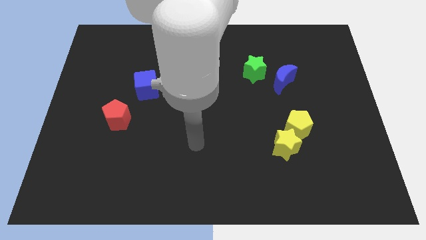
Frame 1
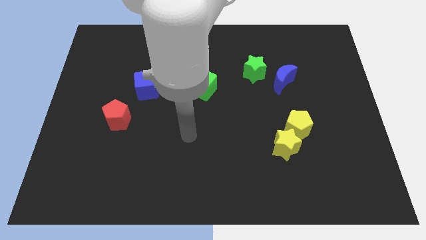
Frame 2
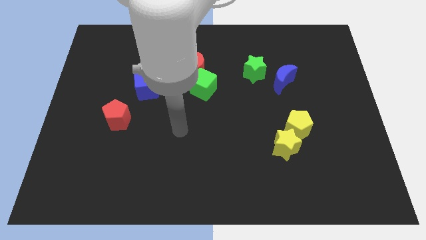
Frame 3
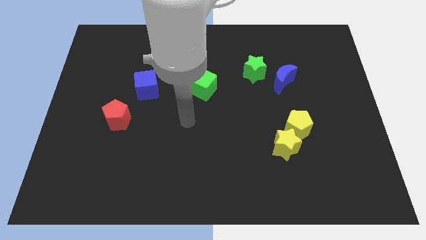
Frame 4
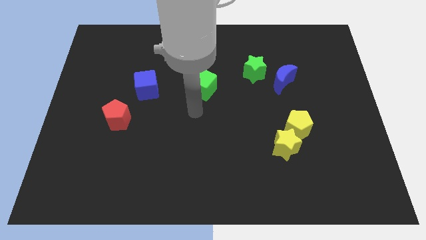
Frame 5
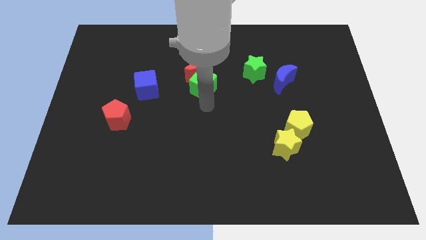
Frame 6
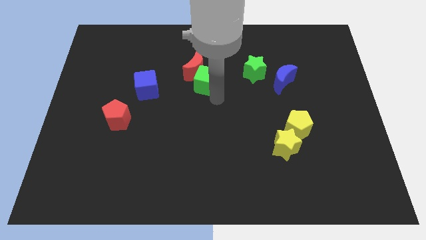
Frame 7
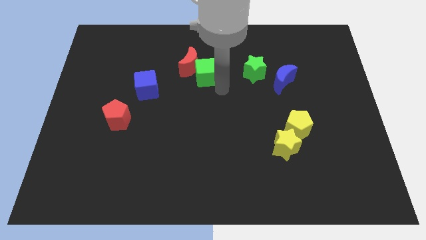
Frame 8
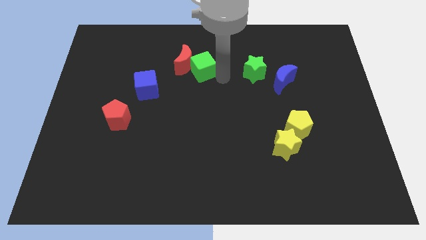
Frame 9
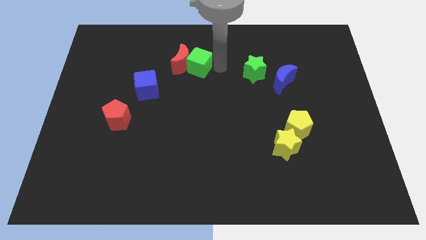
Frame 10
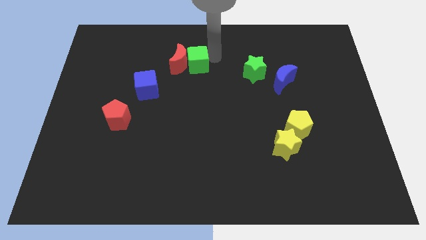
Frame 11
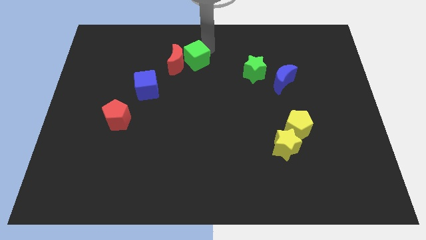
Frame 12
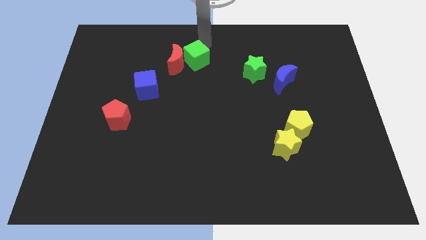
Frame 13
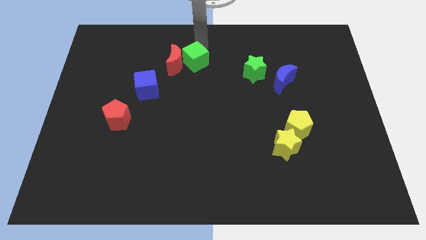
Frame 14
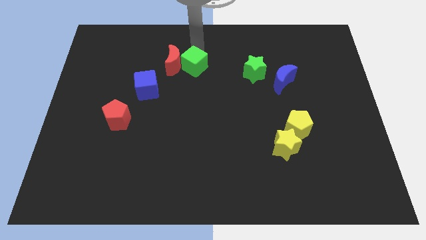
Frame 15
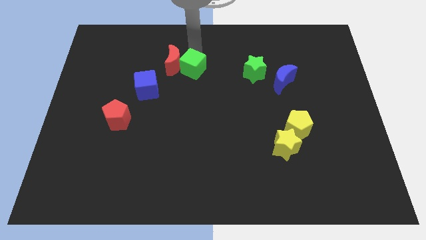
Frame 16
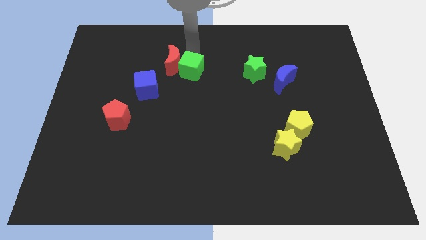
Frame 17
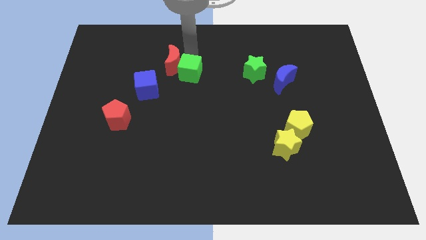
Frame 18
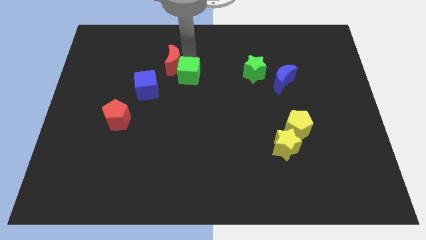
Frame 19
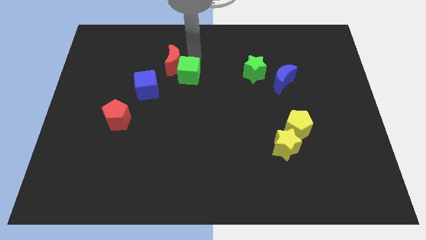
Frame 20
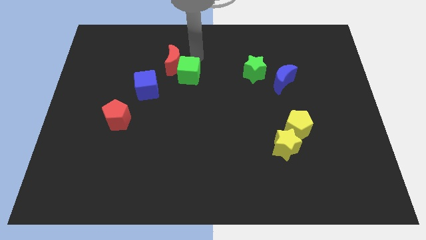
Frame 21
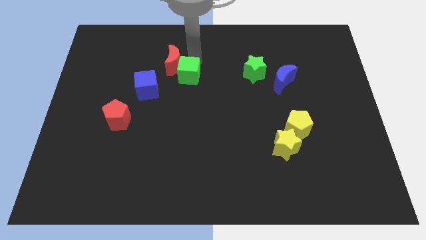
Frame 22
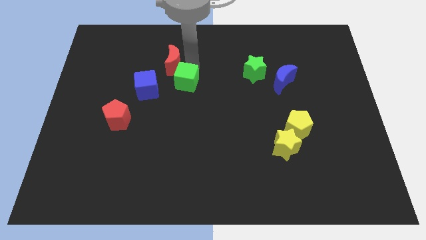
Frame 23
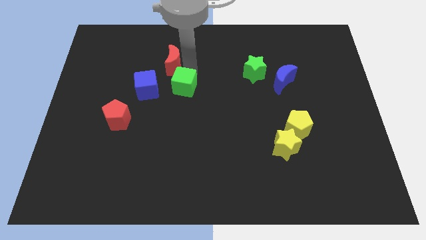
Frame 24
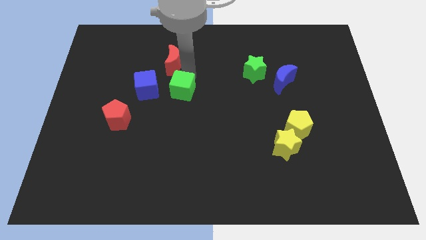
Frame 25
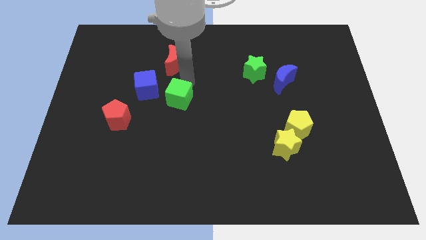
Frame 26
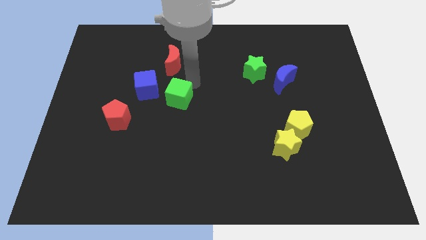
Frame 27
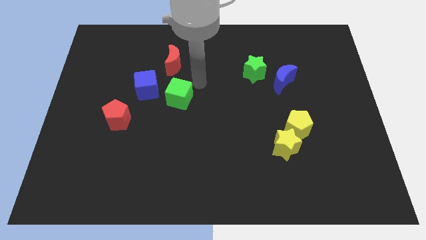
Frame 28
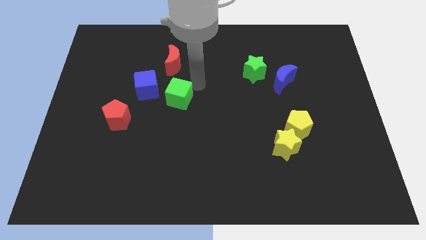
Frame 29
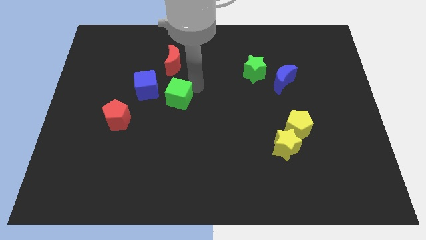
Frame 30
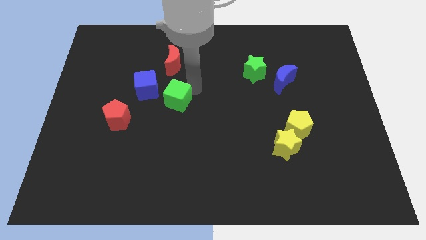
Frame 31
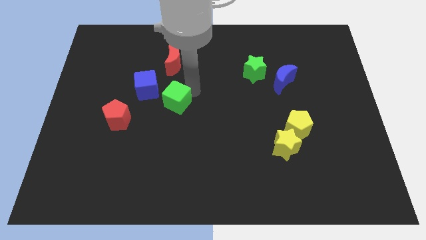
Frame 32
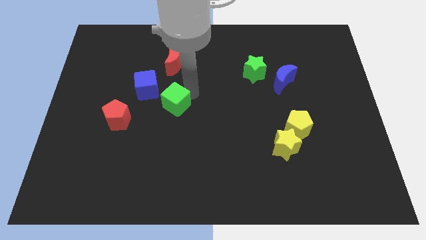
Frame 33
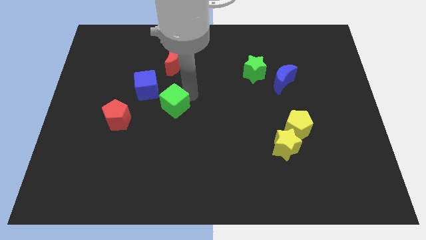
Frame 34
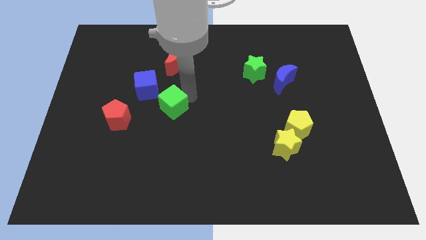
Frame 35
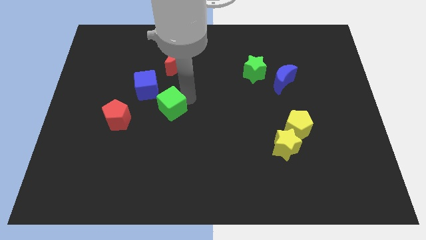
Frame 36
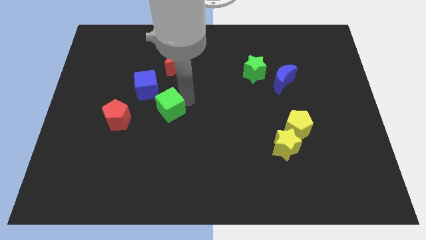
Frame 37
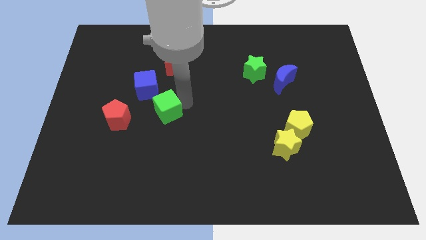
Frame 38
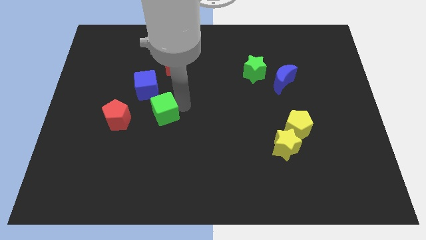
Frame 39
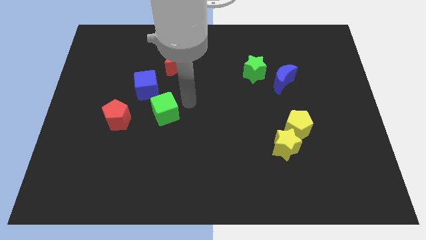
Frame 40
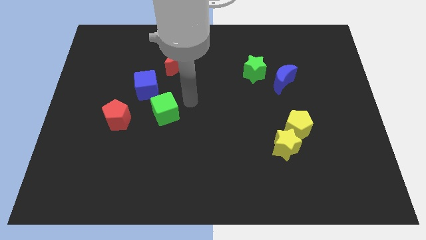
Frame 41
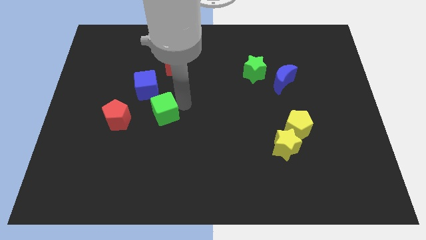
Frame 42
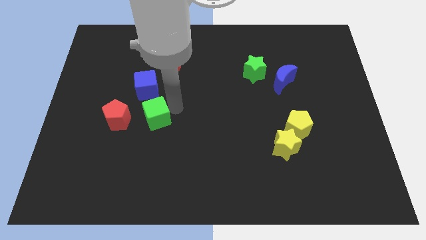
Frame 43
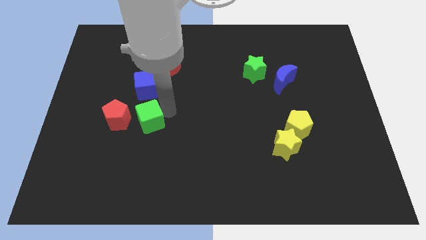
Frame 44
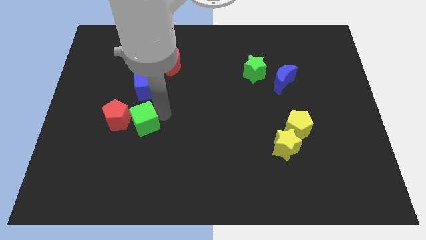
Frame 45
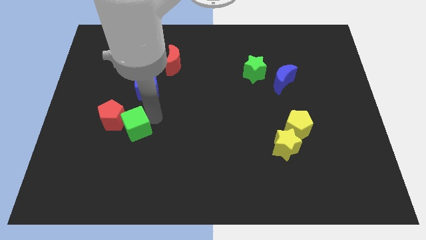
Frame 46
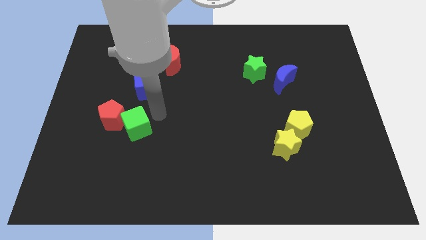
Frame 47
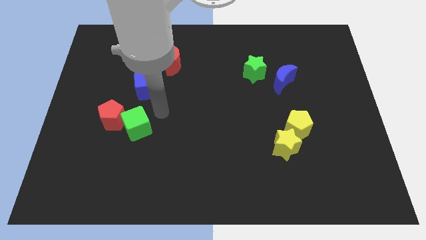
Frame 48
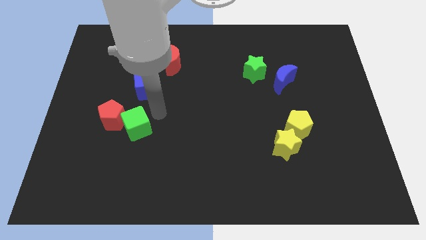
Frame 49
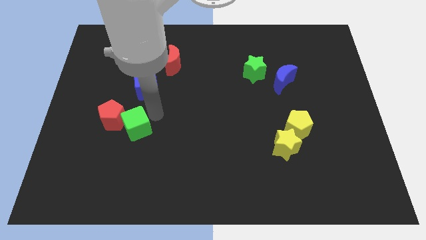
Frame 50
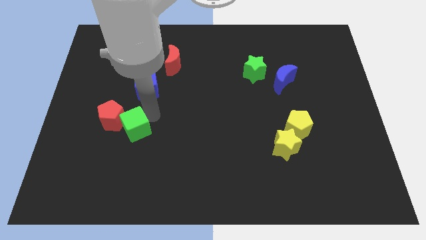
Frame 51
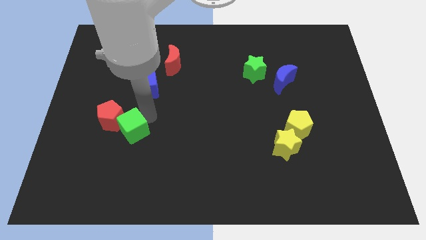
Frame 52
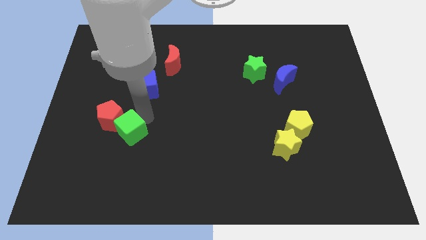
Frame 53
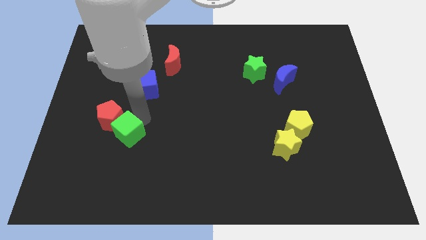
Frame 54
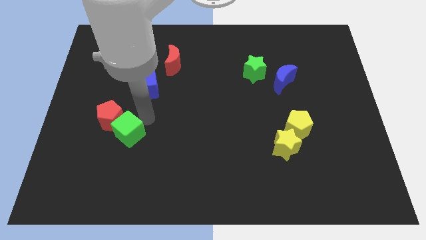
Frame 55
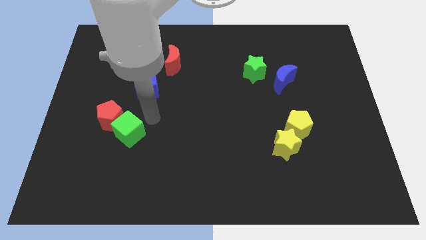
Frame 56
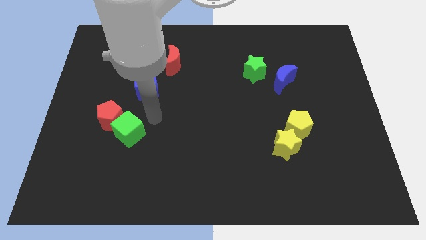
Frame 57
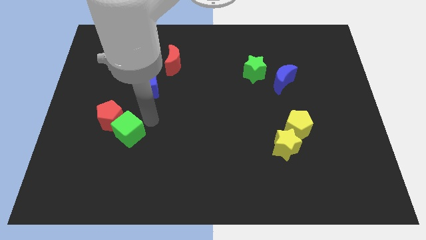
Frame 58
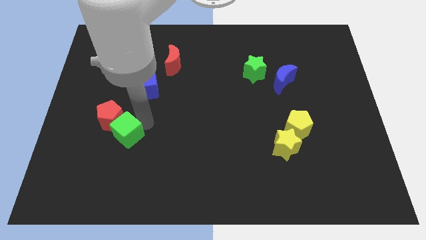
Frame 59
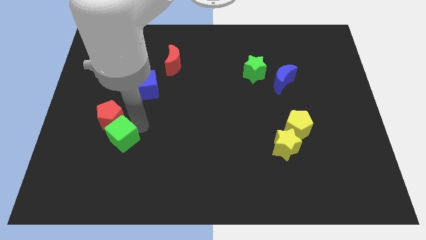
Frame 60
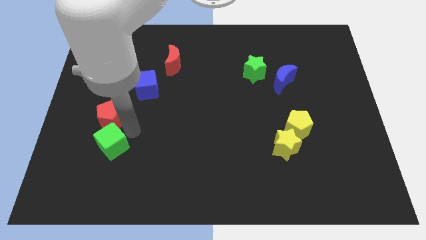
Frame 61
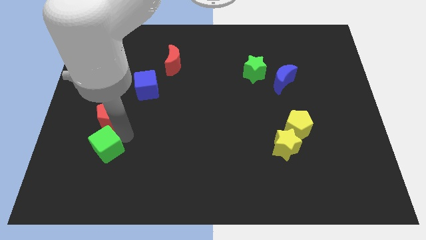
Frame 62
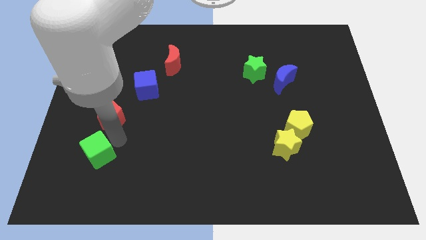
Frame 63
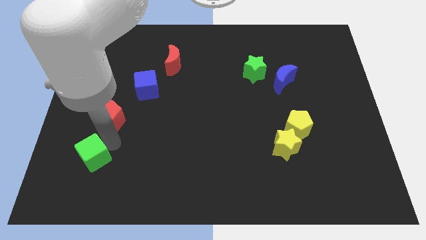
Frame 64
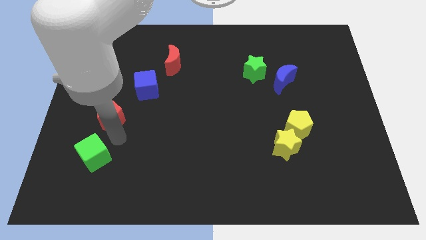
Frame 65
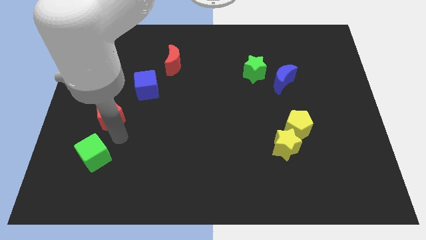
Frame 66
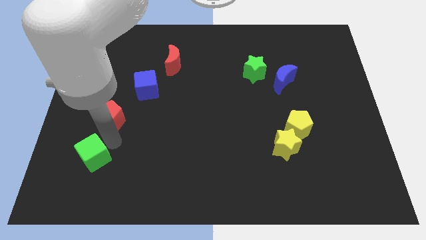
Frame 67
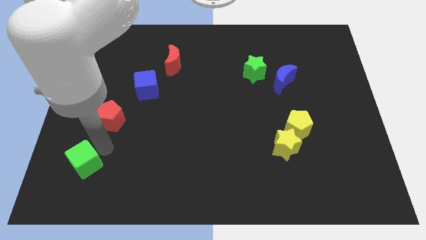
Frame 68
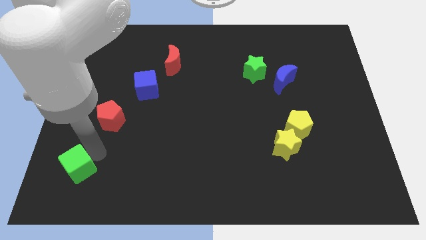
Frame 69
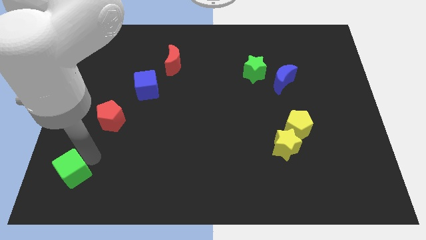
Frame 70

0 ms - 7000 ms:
put the green cube to the lower left corner
